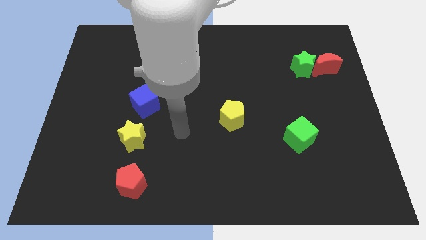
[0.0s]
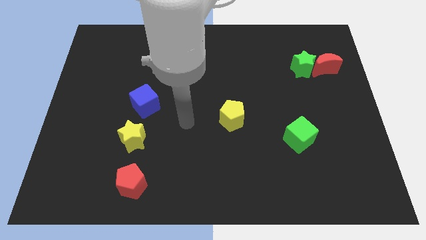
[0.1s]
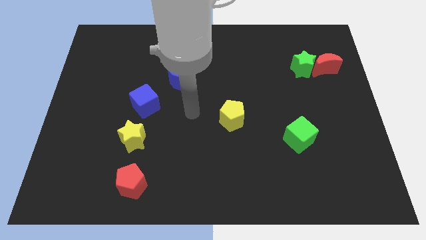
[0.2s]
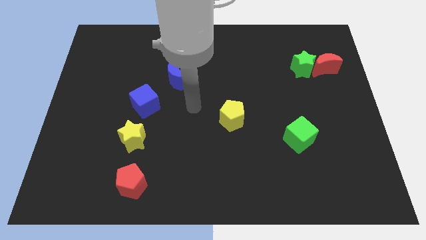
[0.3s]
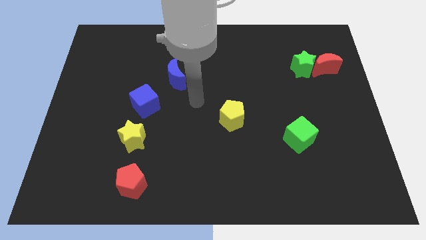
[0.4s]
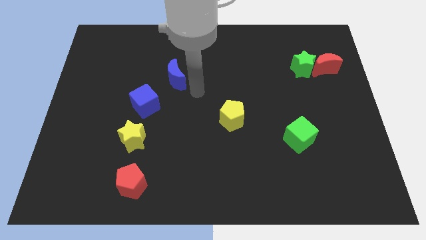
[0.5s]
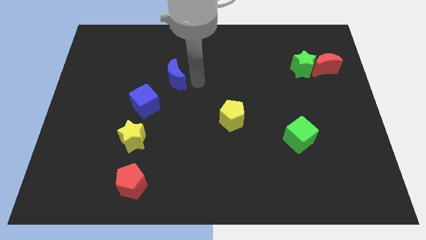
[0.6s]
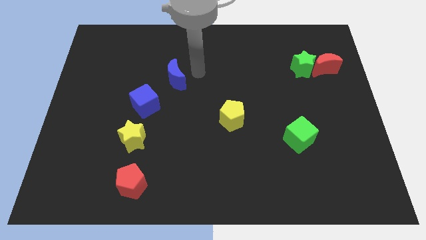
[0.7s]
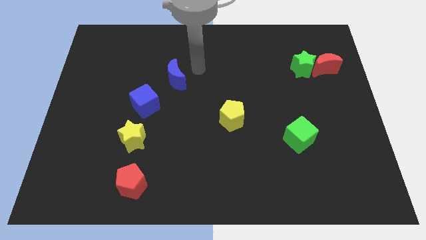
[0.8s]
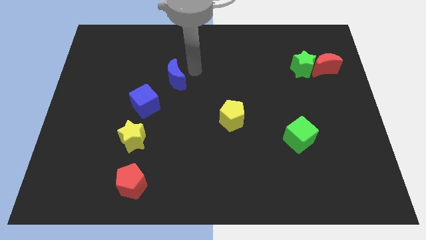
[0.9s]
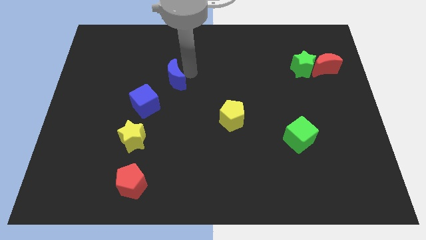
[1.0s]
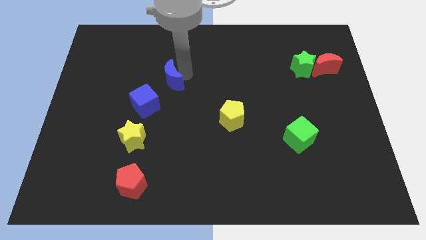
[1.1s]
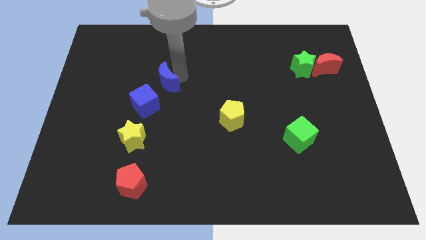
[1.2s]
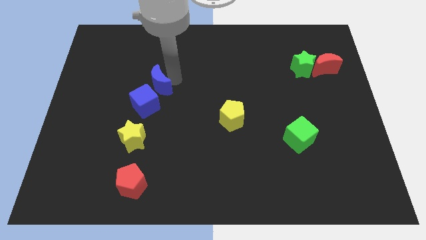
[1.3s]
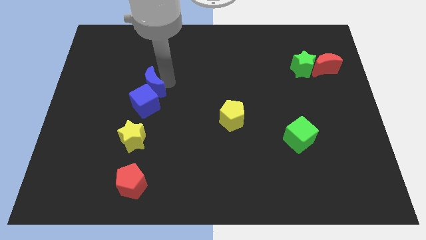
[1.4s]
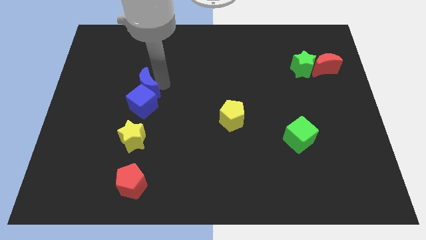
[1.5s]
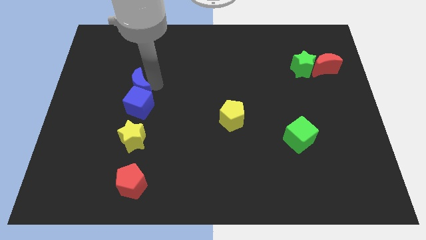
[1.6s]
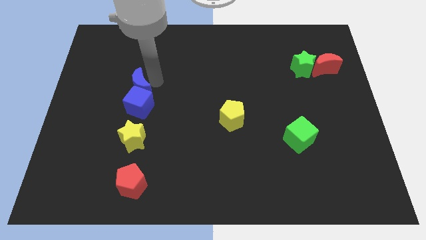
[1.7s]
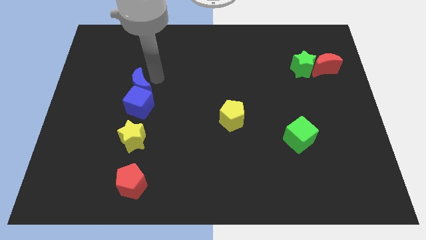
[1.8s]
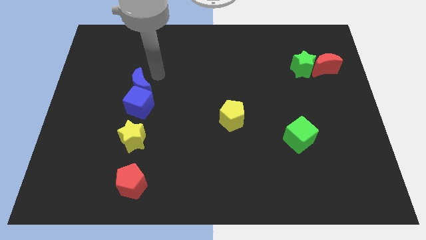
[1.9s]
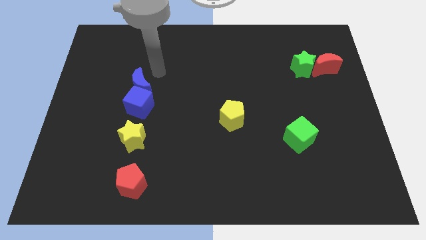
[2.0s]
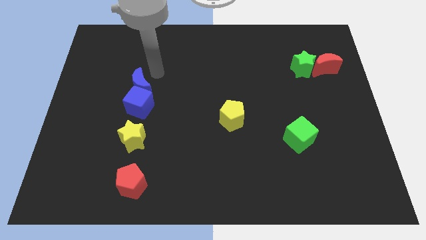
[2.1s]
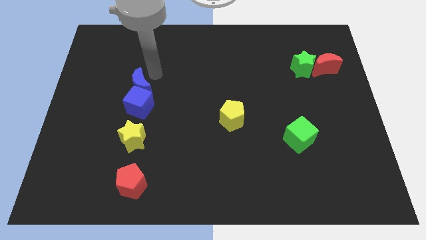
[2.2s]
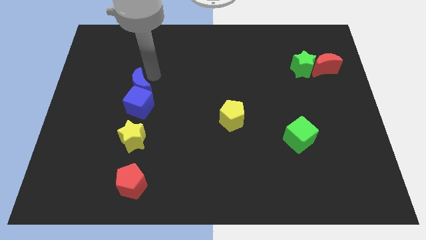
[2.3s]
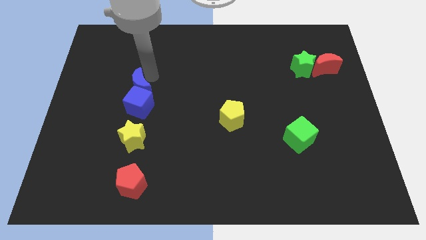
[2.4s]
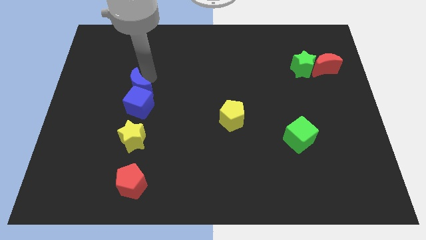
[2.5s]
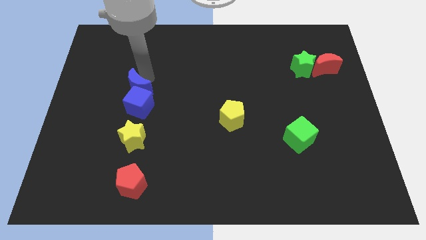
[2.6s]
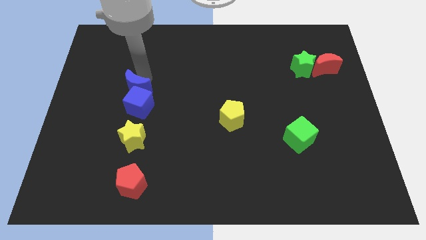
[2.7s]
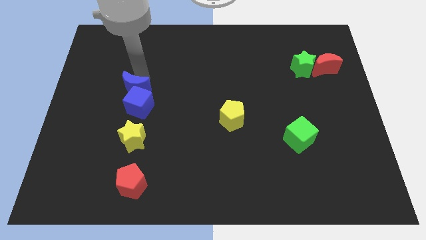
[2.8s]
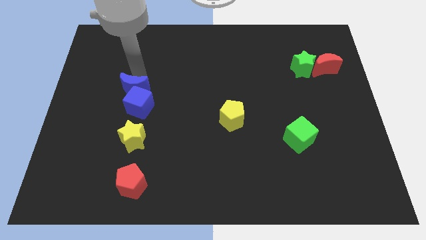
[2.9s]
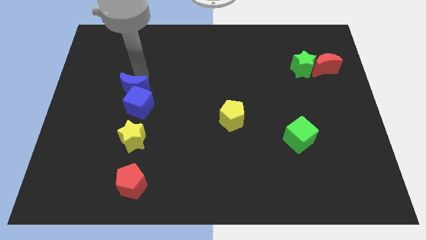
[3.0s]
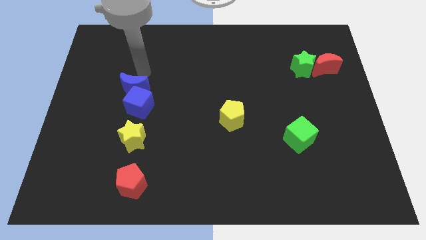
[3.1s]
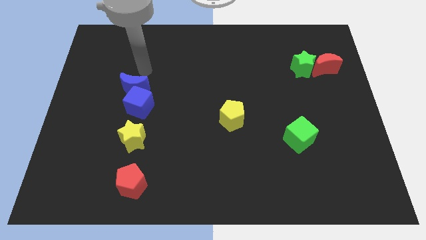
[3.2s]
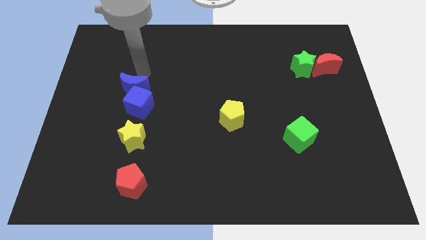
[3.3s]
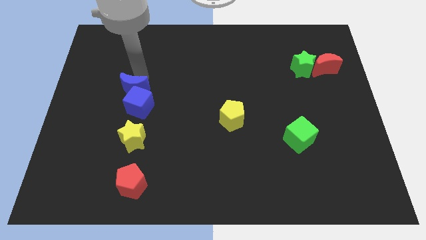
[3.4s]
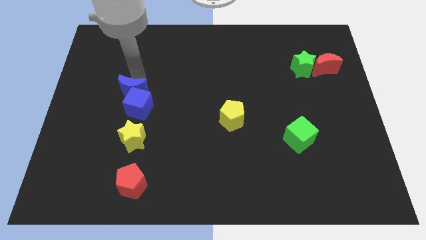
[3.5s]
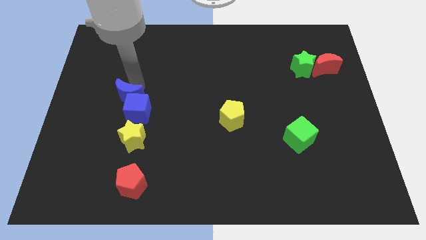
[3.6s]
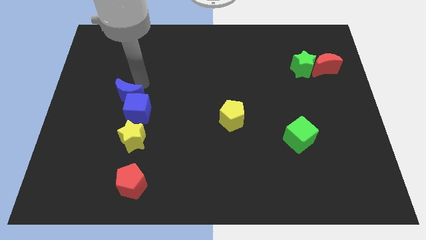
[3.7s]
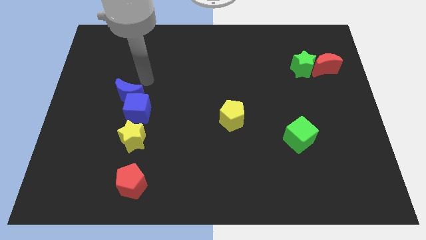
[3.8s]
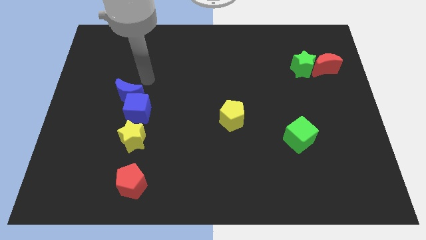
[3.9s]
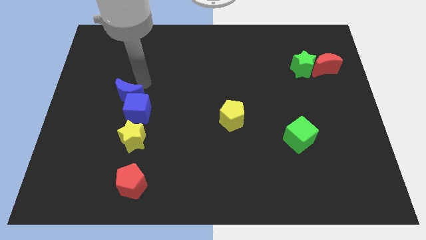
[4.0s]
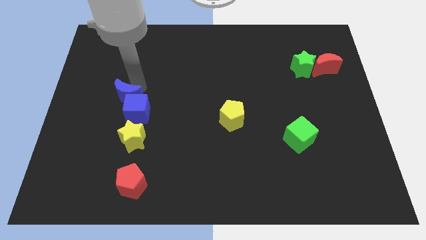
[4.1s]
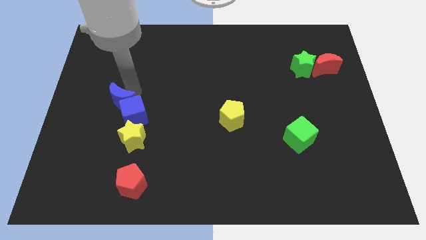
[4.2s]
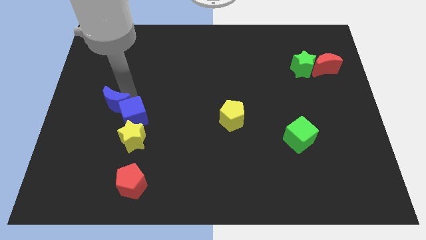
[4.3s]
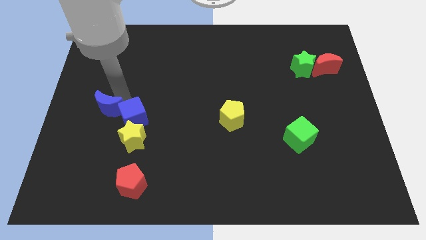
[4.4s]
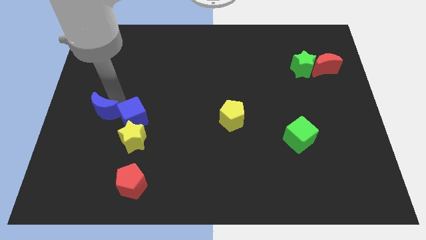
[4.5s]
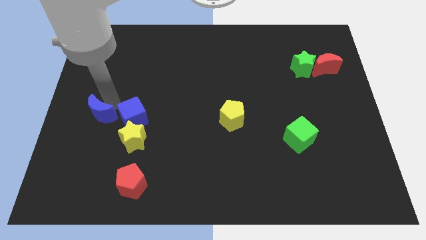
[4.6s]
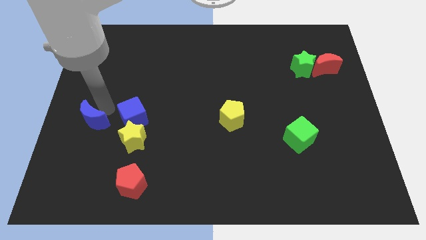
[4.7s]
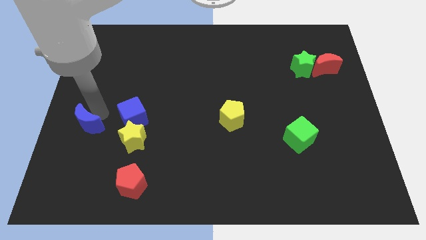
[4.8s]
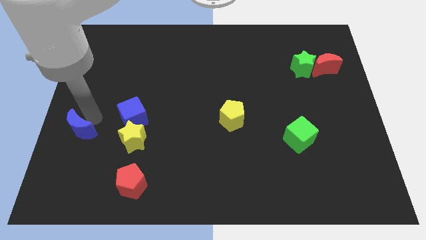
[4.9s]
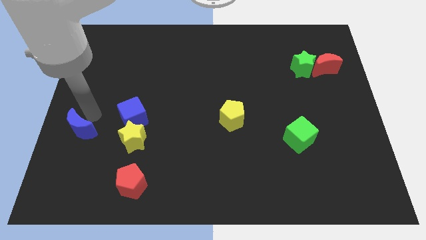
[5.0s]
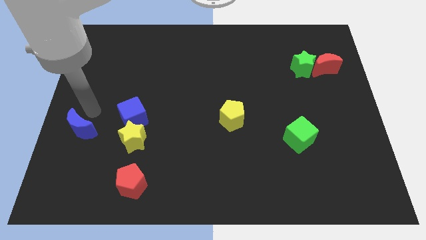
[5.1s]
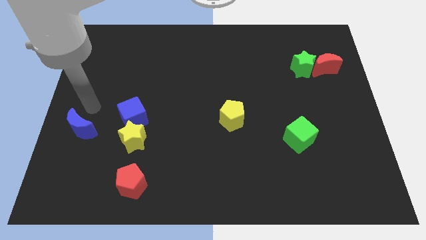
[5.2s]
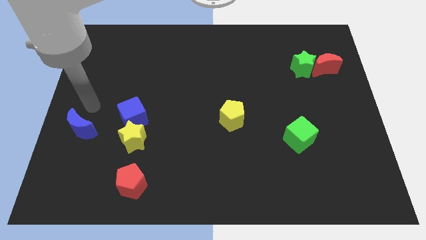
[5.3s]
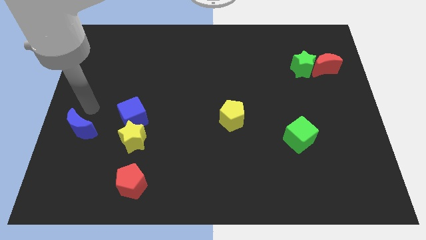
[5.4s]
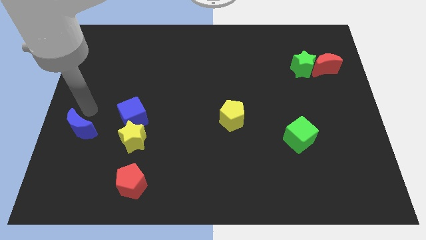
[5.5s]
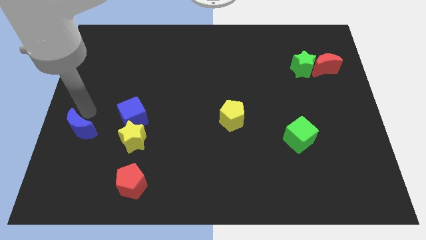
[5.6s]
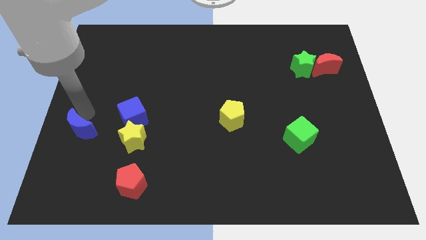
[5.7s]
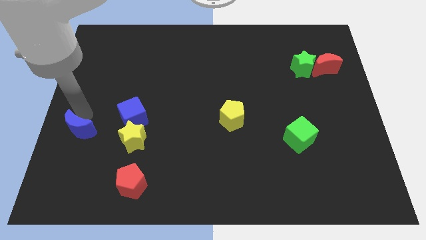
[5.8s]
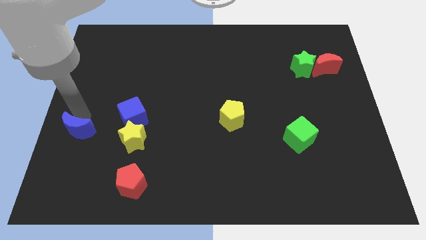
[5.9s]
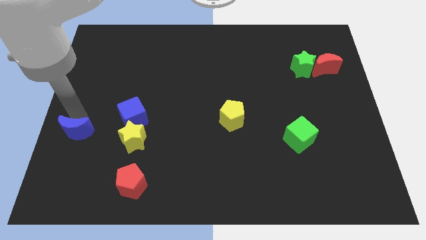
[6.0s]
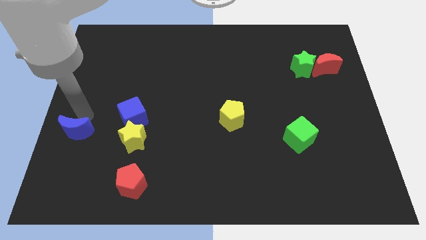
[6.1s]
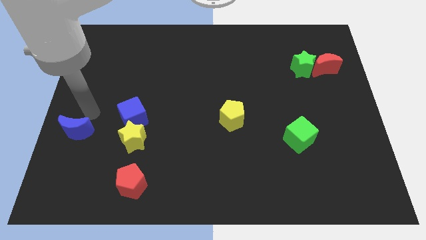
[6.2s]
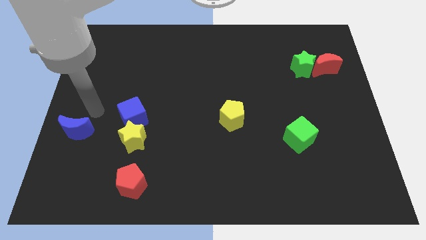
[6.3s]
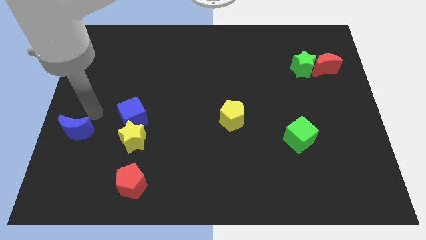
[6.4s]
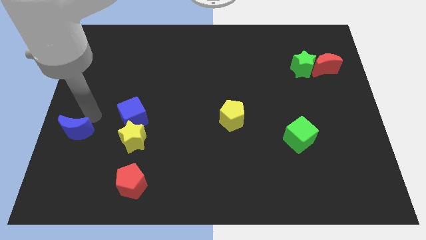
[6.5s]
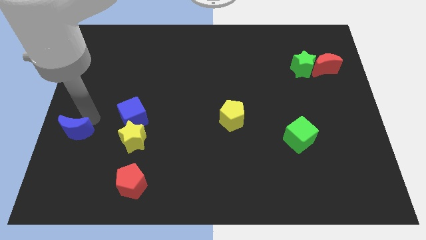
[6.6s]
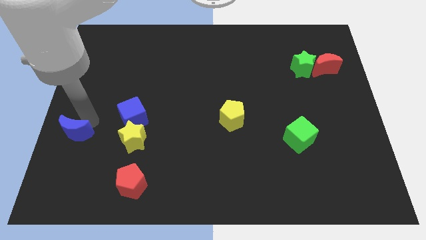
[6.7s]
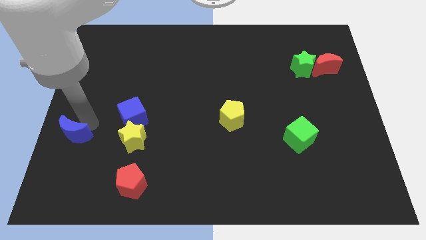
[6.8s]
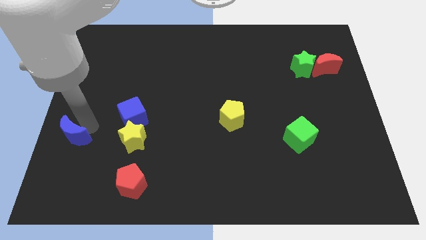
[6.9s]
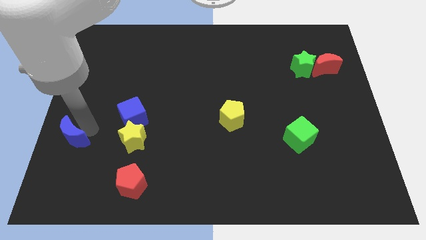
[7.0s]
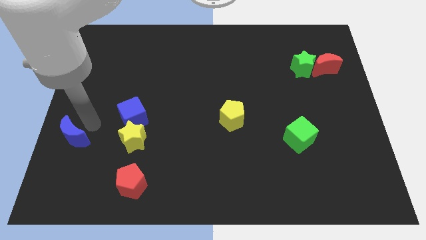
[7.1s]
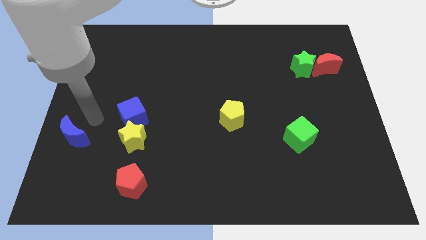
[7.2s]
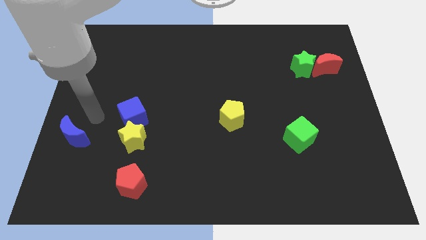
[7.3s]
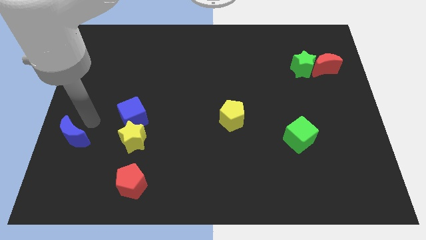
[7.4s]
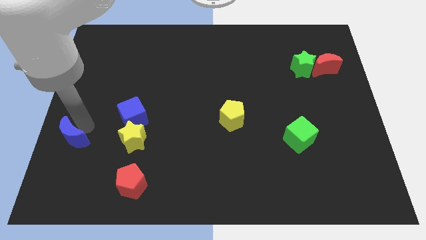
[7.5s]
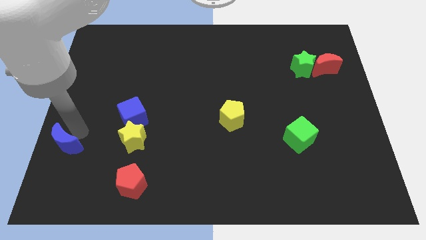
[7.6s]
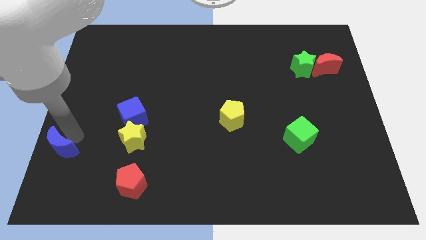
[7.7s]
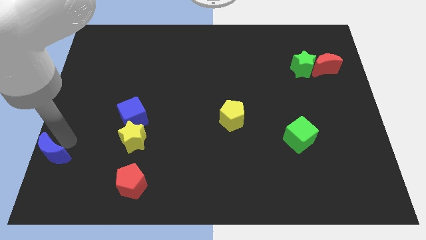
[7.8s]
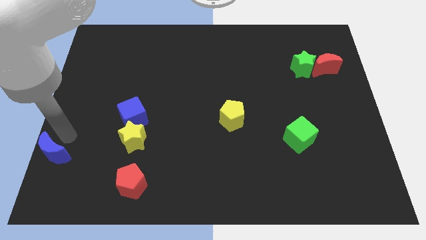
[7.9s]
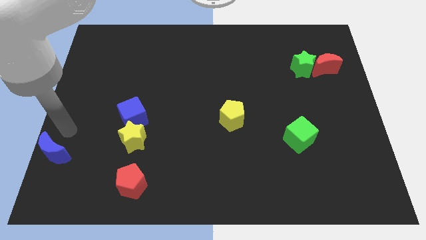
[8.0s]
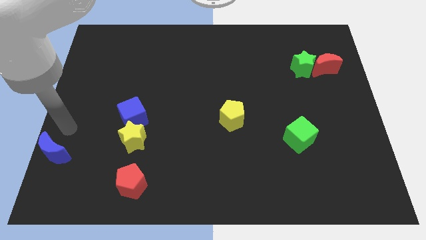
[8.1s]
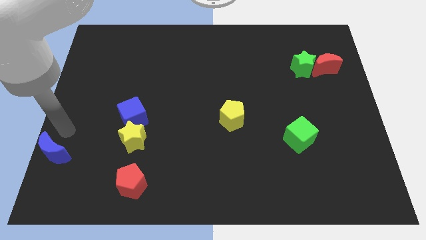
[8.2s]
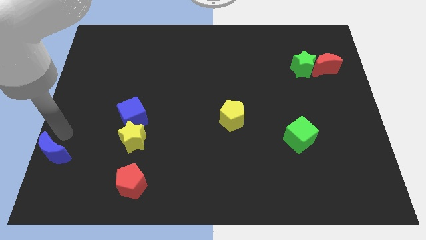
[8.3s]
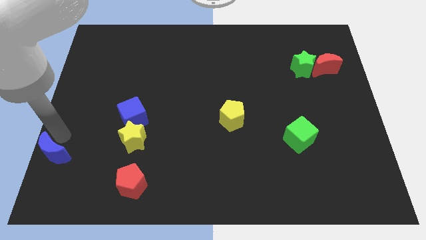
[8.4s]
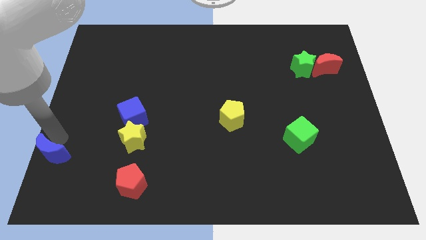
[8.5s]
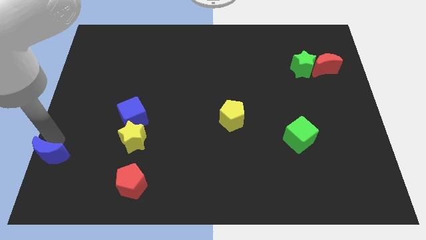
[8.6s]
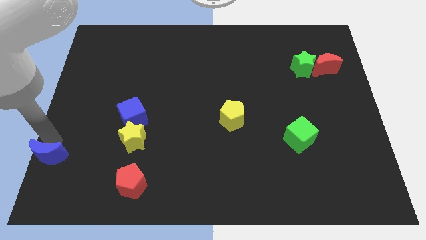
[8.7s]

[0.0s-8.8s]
slide the blue moon to the bottom left corner
